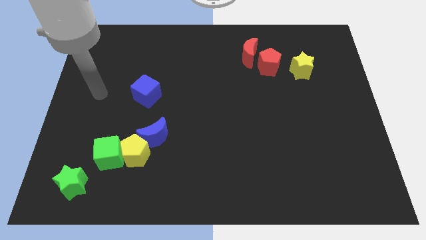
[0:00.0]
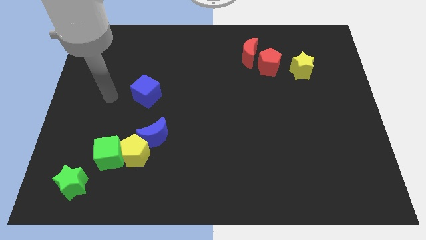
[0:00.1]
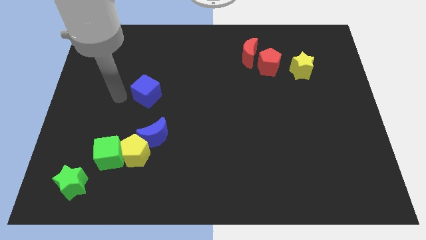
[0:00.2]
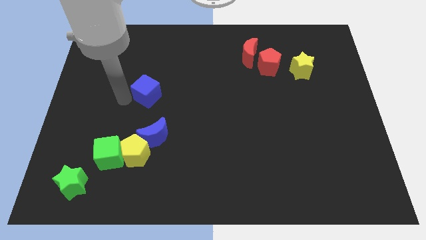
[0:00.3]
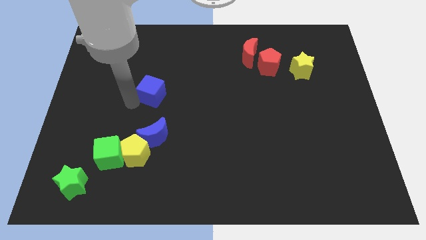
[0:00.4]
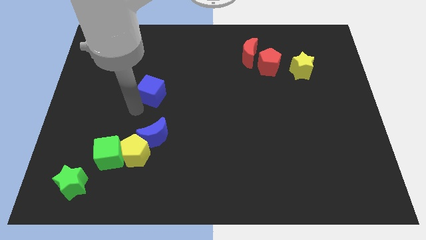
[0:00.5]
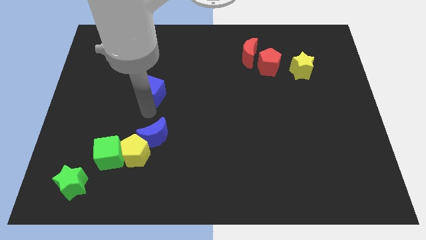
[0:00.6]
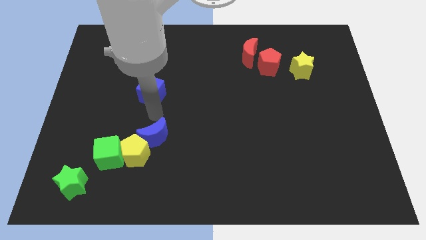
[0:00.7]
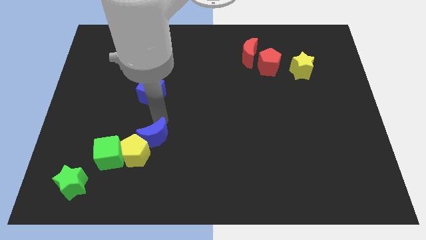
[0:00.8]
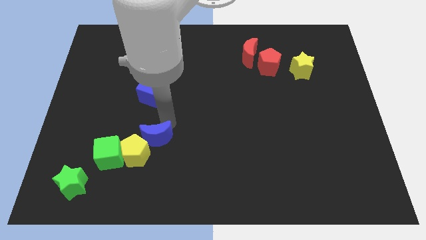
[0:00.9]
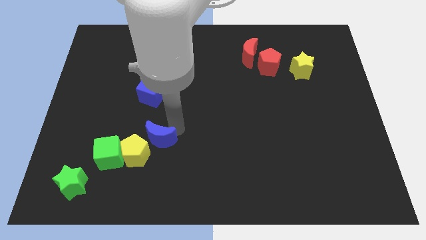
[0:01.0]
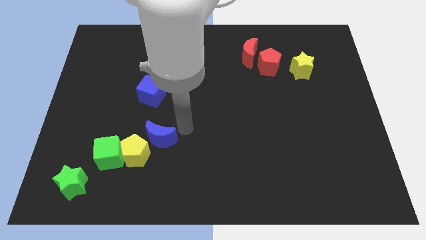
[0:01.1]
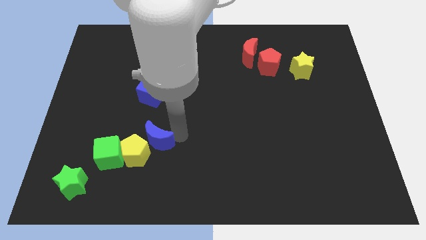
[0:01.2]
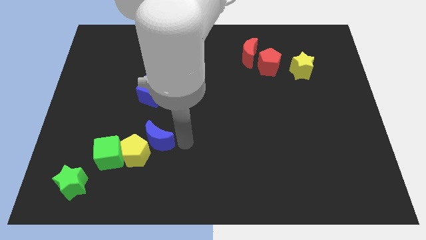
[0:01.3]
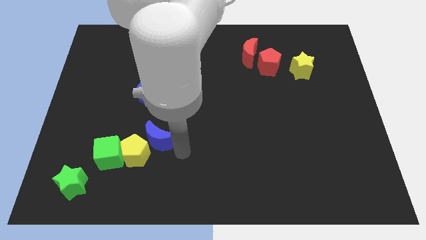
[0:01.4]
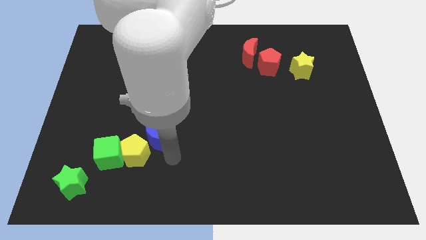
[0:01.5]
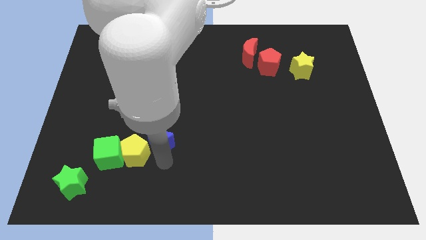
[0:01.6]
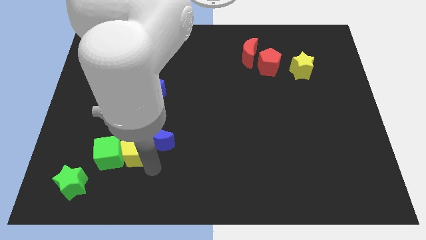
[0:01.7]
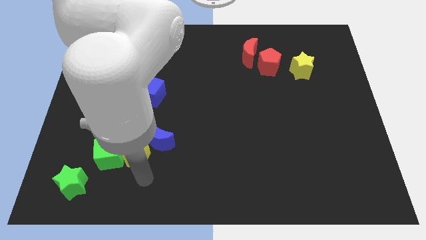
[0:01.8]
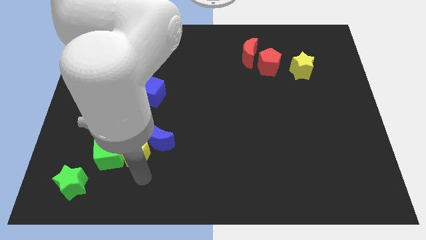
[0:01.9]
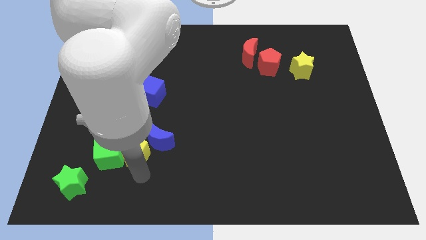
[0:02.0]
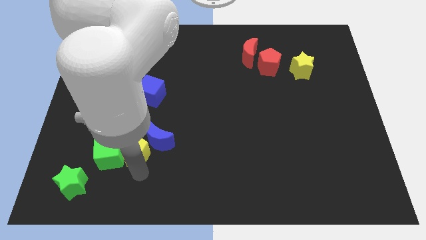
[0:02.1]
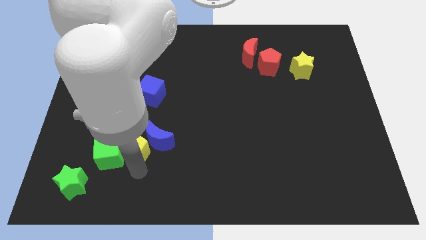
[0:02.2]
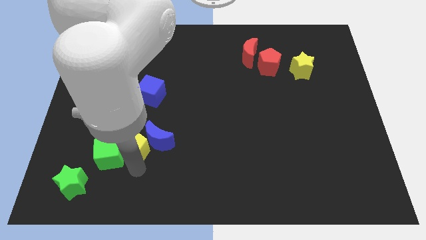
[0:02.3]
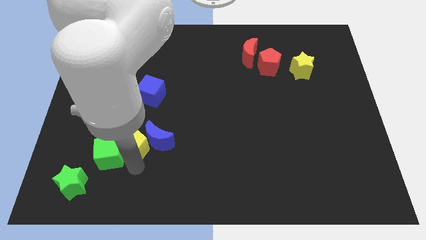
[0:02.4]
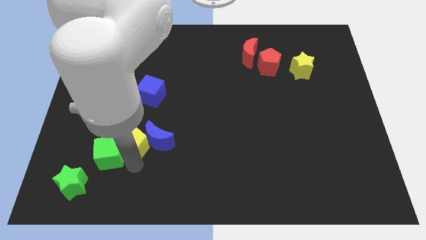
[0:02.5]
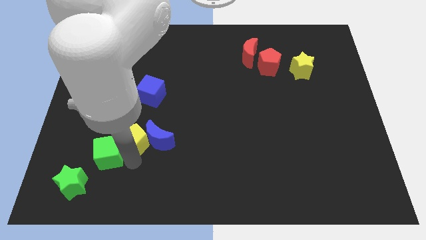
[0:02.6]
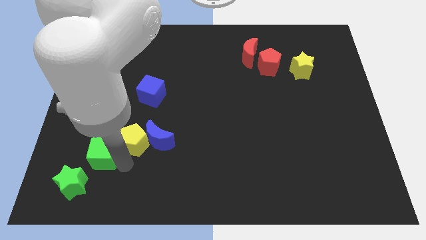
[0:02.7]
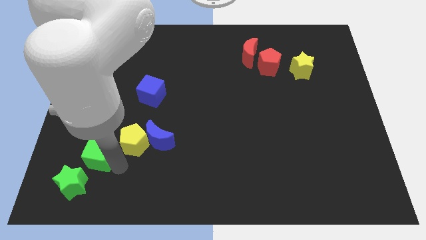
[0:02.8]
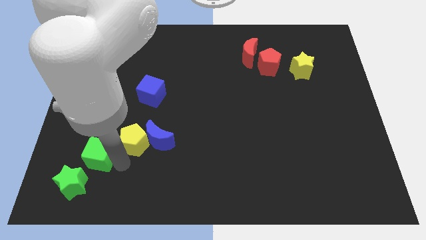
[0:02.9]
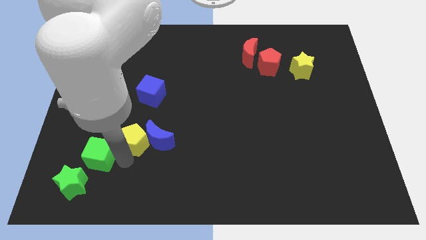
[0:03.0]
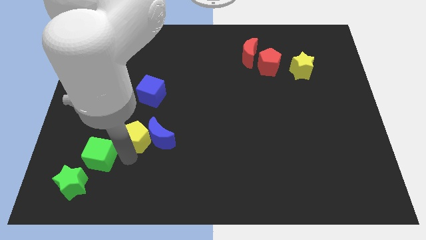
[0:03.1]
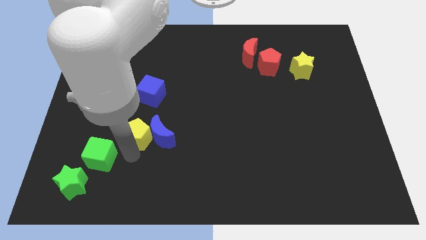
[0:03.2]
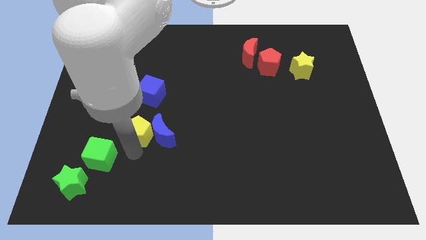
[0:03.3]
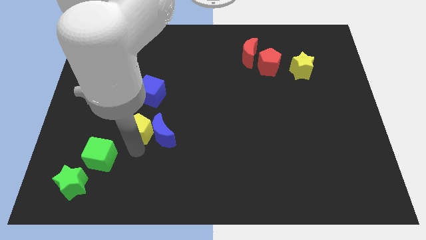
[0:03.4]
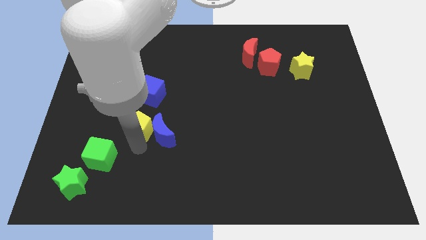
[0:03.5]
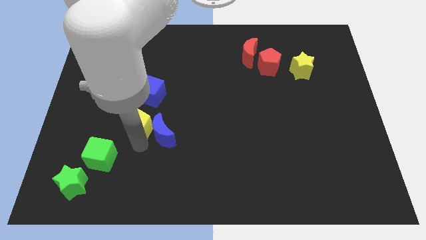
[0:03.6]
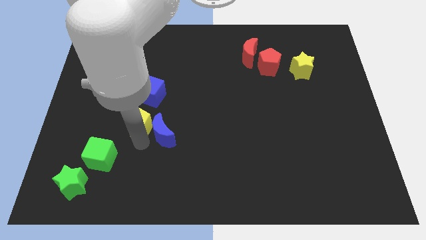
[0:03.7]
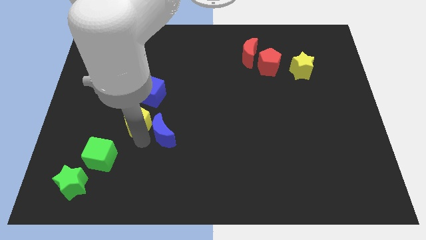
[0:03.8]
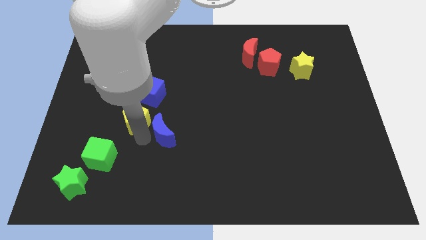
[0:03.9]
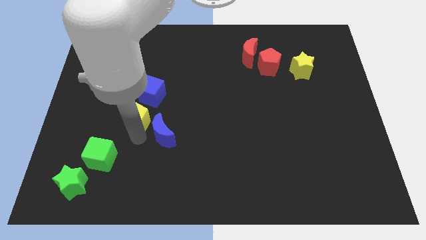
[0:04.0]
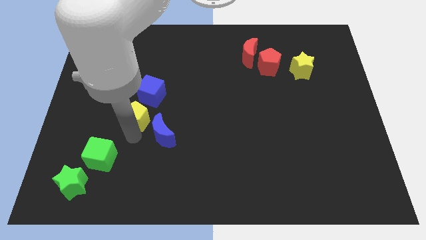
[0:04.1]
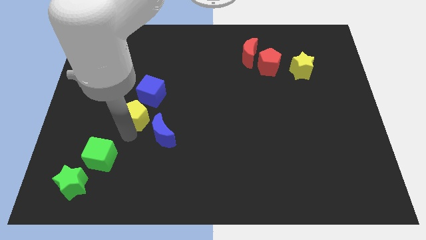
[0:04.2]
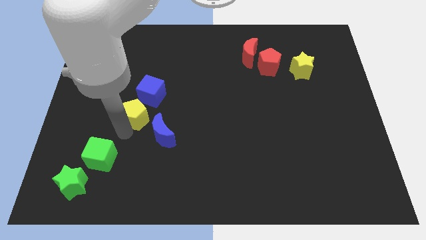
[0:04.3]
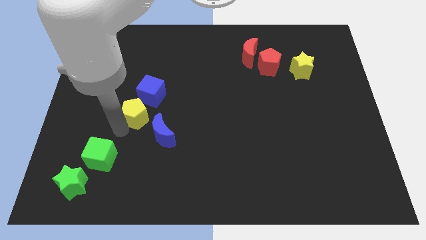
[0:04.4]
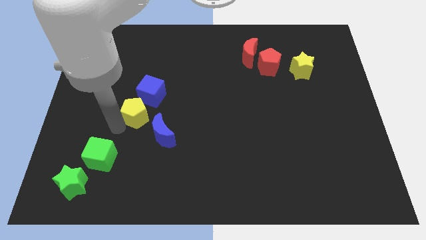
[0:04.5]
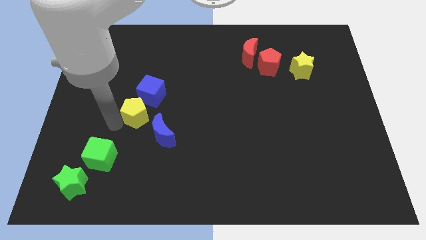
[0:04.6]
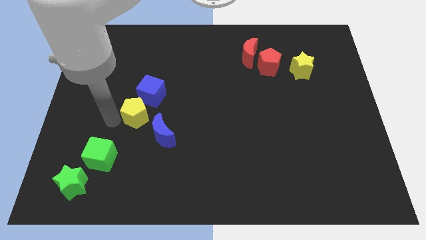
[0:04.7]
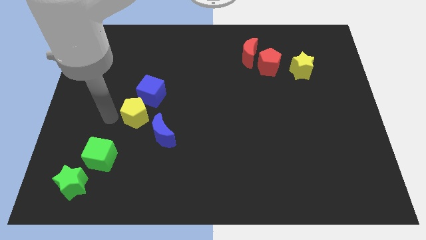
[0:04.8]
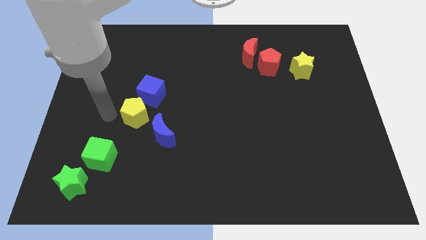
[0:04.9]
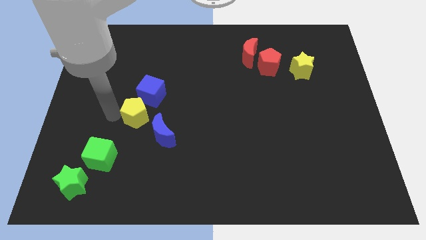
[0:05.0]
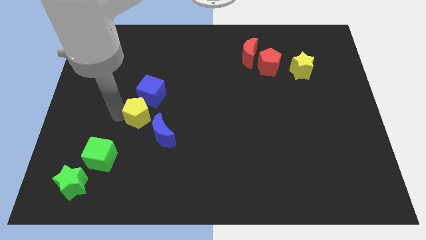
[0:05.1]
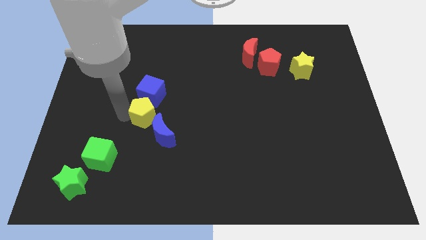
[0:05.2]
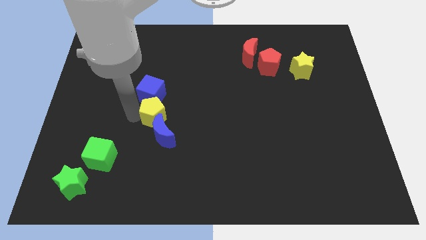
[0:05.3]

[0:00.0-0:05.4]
slightly push the yellow pentagon up and to the right

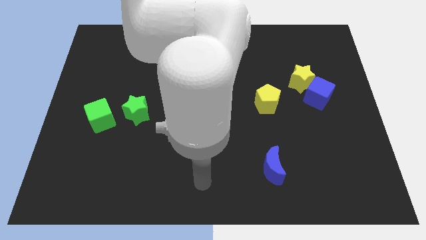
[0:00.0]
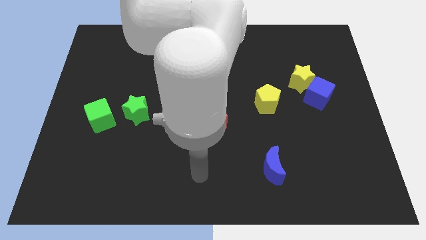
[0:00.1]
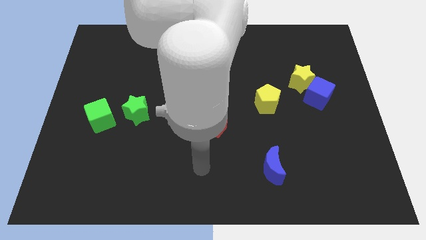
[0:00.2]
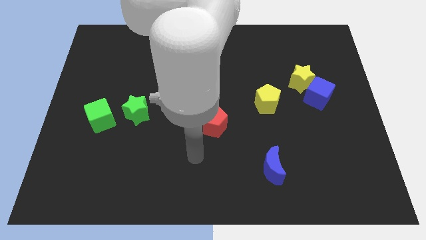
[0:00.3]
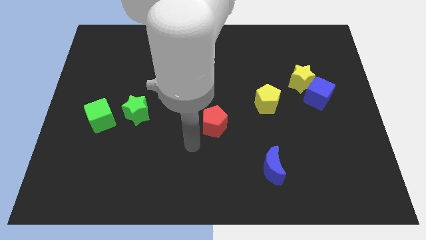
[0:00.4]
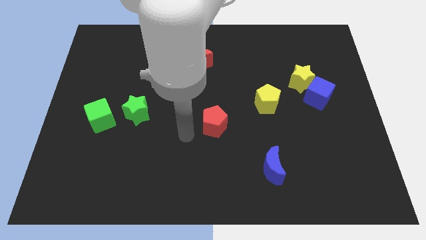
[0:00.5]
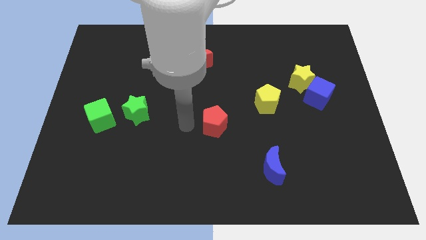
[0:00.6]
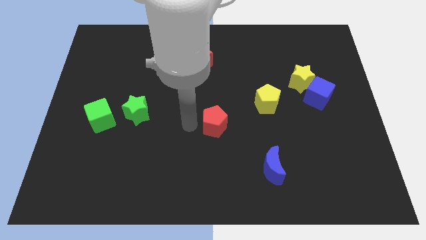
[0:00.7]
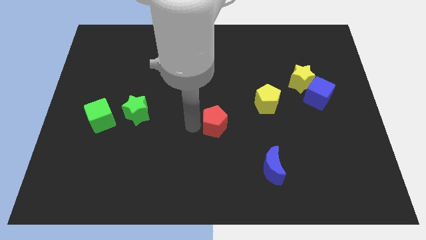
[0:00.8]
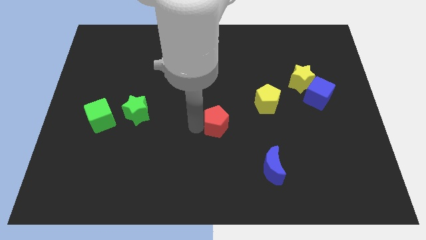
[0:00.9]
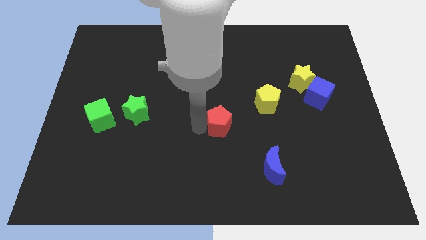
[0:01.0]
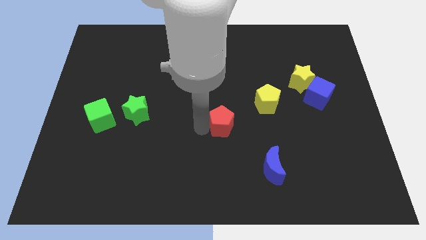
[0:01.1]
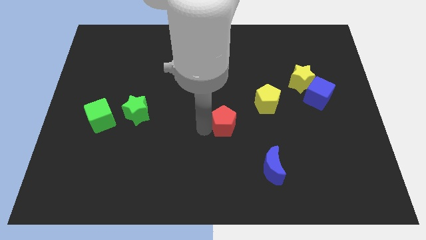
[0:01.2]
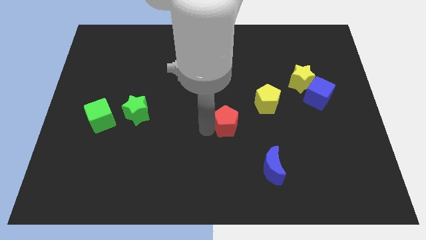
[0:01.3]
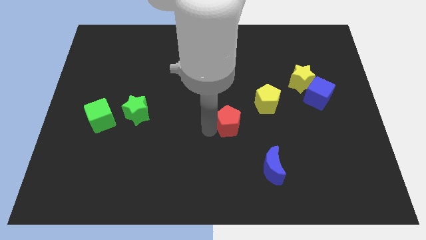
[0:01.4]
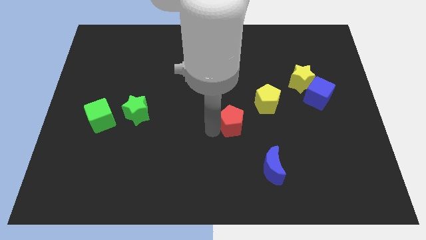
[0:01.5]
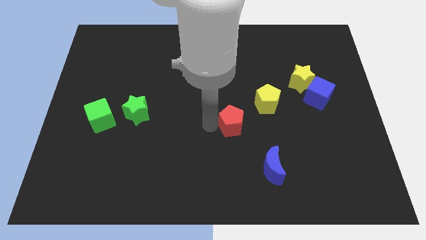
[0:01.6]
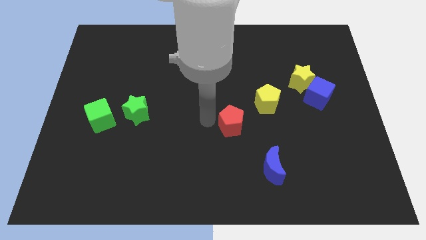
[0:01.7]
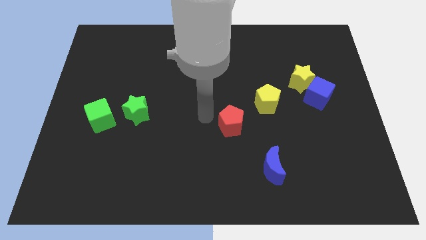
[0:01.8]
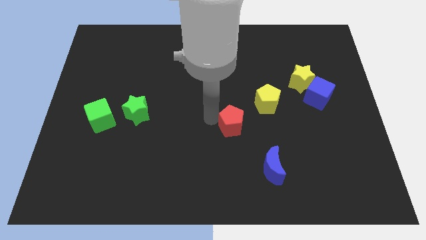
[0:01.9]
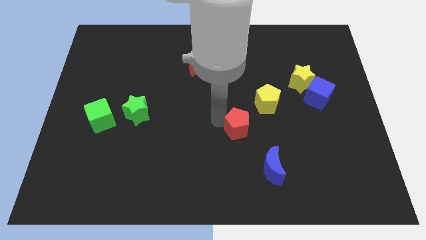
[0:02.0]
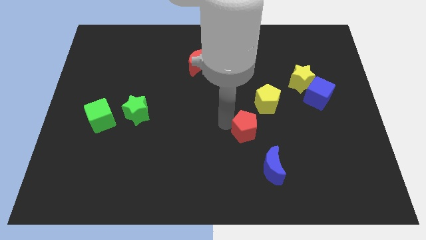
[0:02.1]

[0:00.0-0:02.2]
slightly slide the red pentagon right

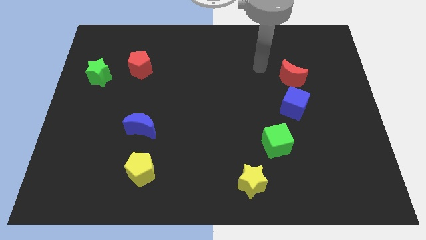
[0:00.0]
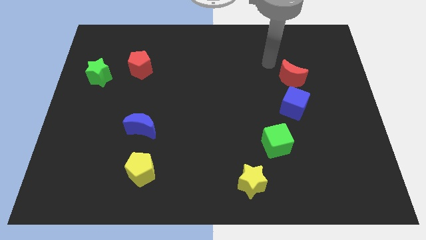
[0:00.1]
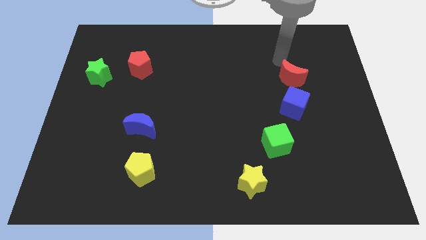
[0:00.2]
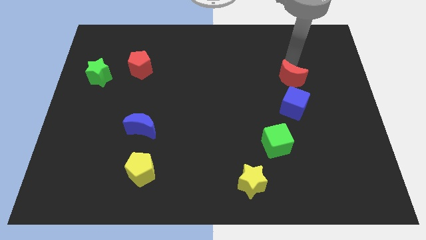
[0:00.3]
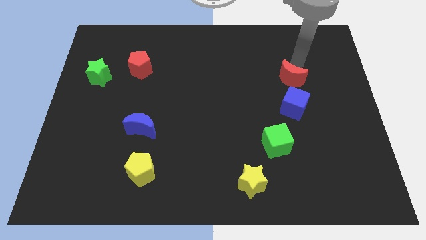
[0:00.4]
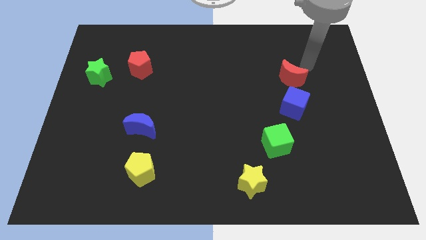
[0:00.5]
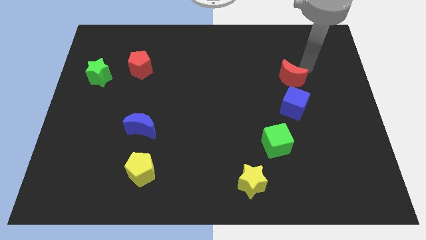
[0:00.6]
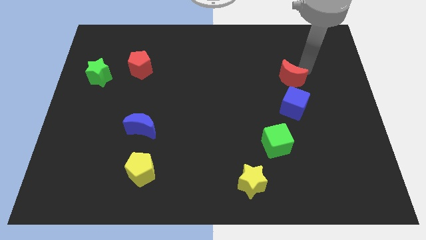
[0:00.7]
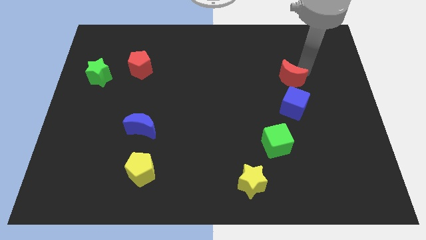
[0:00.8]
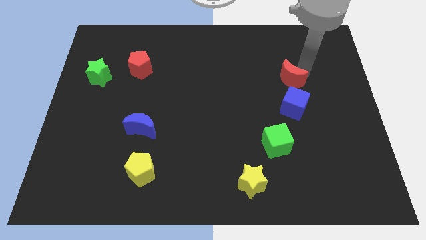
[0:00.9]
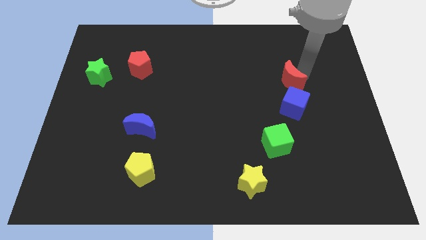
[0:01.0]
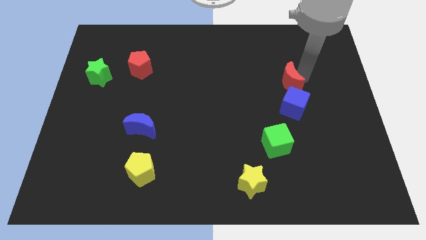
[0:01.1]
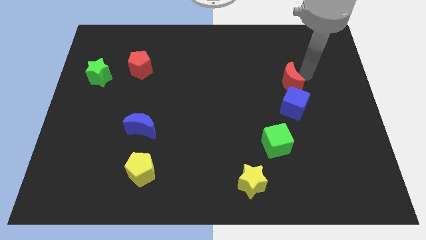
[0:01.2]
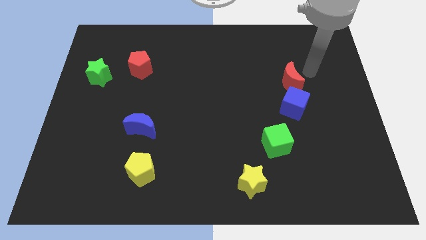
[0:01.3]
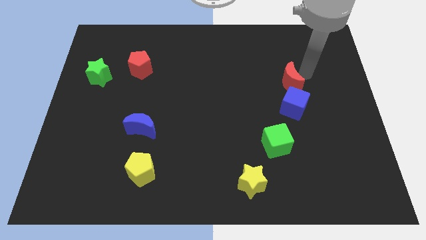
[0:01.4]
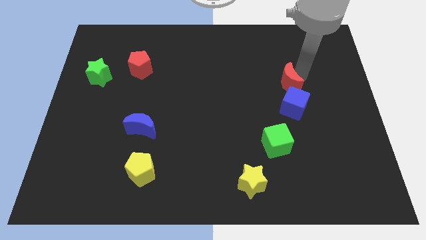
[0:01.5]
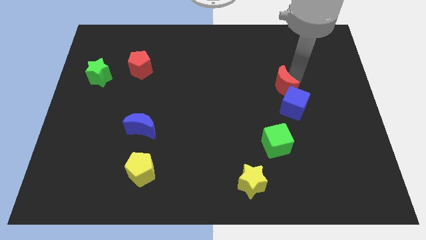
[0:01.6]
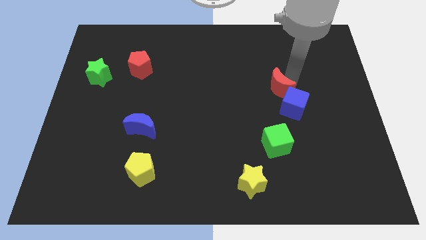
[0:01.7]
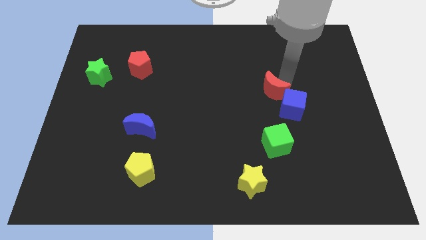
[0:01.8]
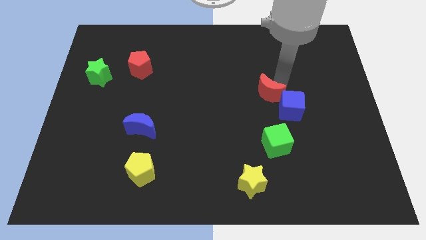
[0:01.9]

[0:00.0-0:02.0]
push the red moon downwards and then left a little bit
